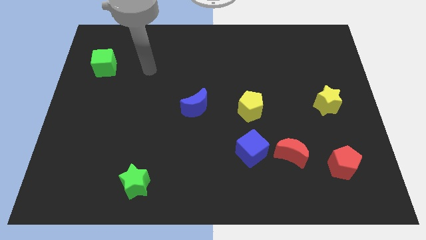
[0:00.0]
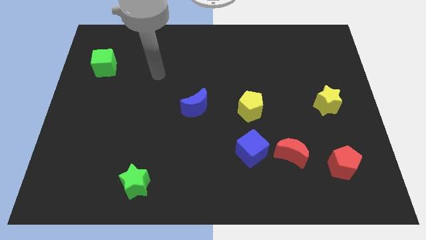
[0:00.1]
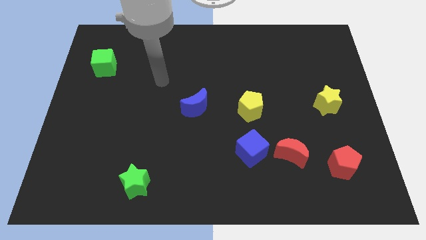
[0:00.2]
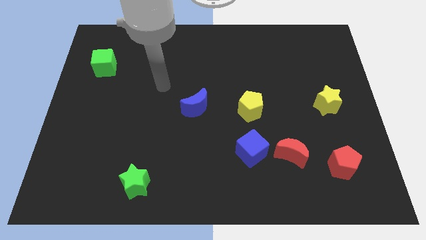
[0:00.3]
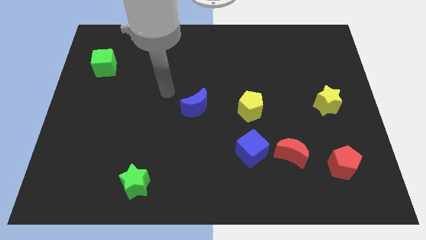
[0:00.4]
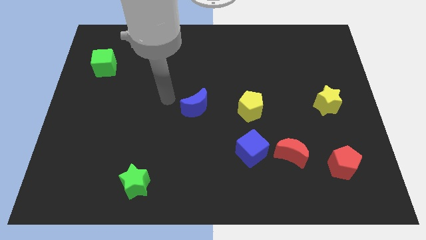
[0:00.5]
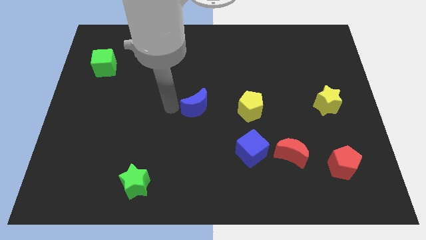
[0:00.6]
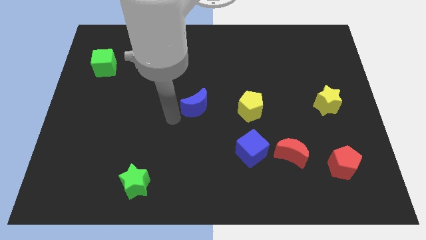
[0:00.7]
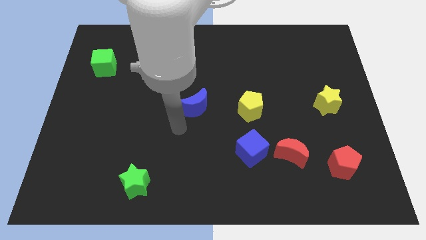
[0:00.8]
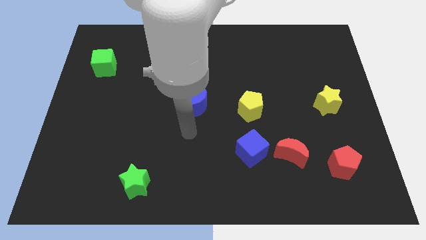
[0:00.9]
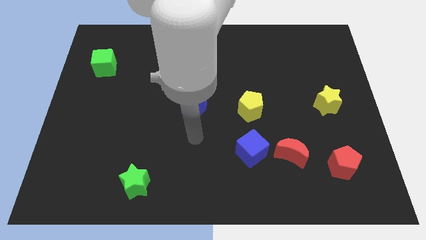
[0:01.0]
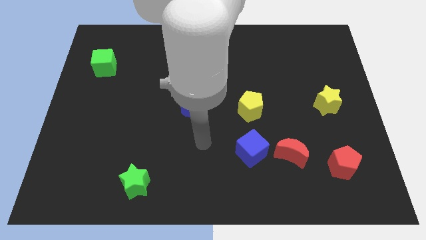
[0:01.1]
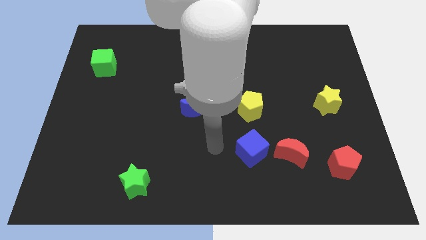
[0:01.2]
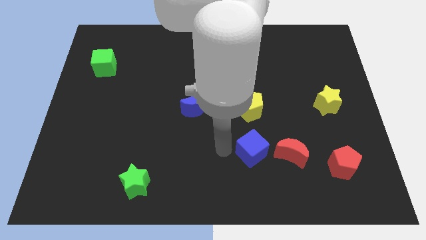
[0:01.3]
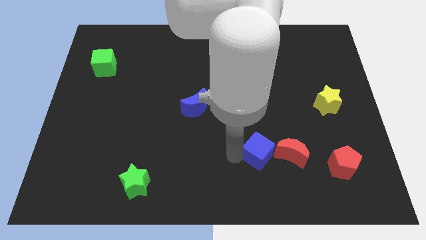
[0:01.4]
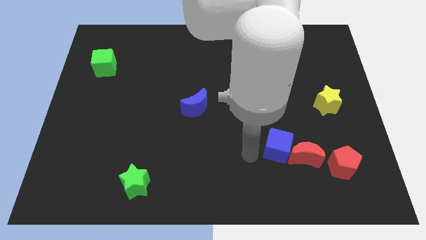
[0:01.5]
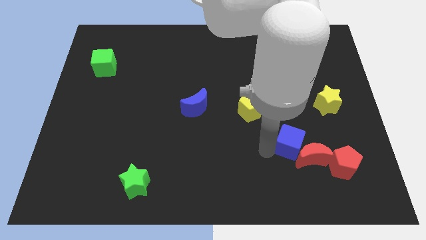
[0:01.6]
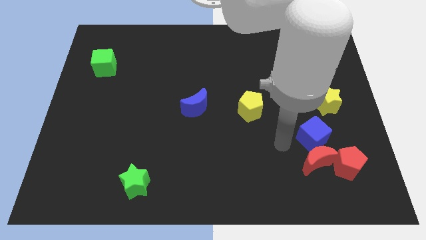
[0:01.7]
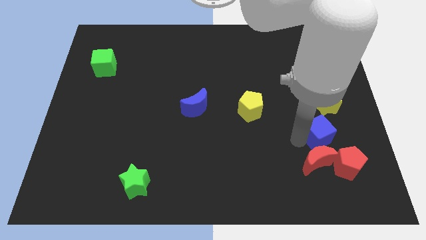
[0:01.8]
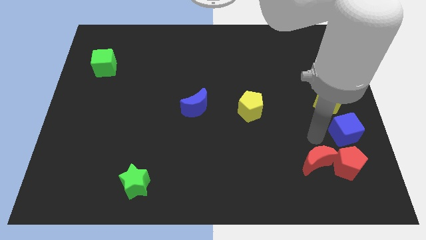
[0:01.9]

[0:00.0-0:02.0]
pull the red moon apart from the blue cube

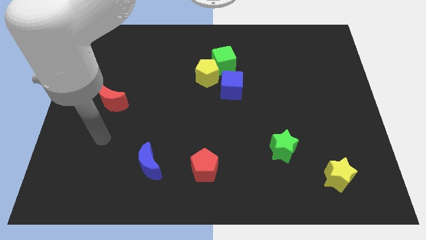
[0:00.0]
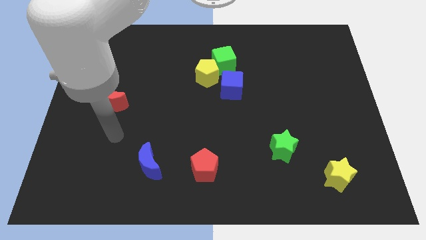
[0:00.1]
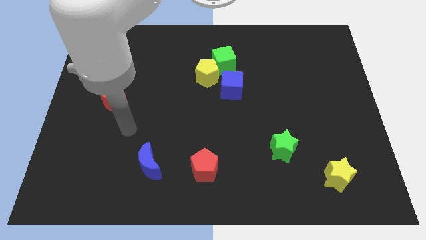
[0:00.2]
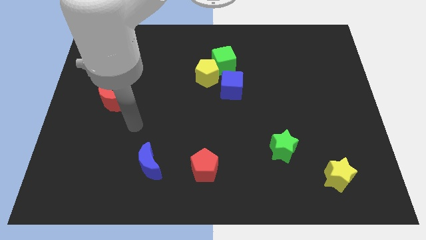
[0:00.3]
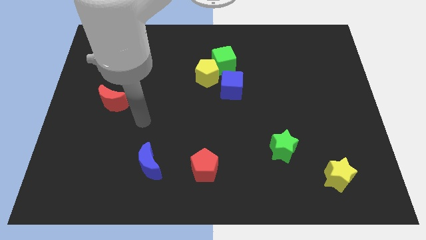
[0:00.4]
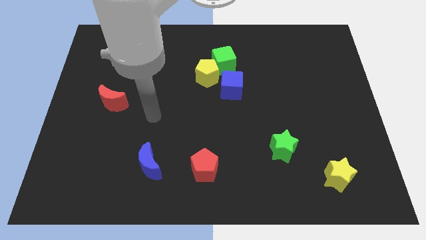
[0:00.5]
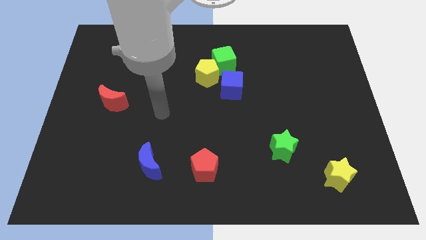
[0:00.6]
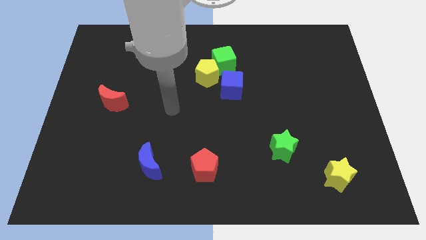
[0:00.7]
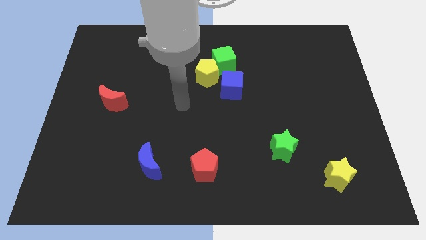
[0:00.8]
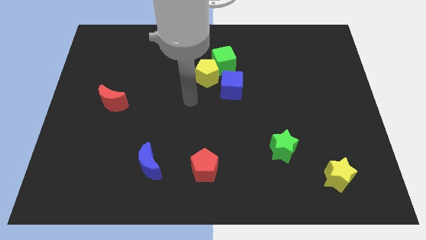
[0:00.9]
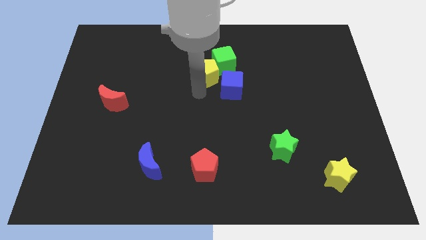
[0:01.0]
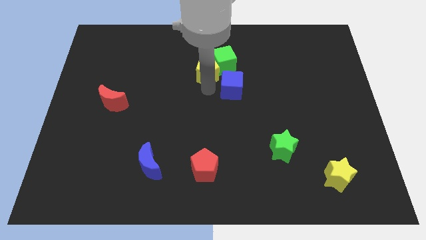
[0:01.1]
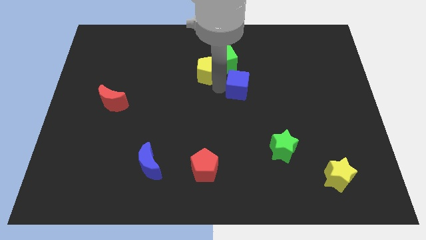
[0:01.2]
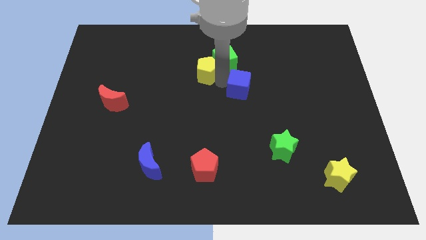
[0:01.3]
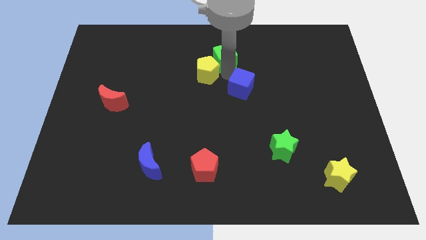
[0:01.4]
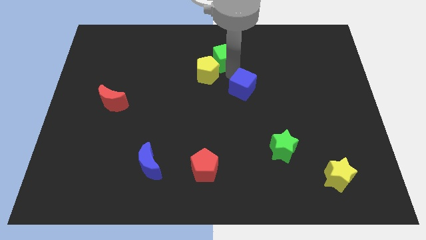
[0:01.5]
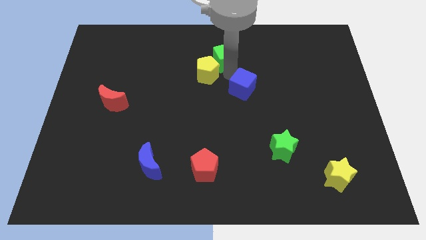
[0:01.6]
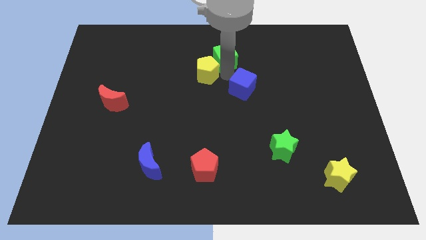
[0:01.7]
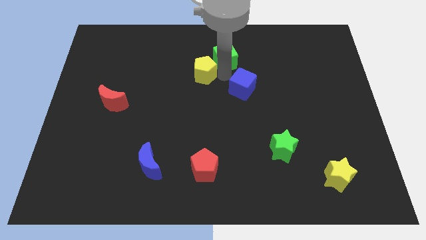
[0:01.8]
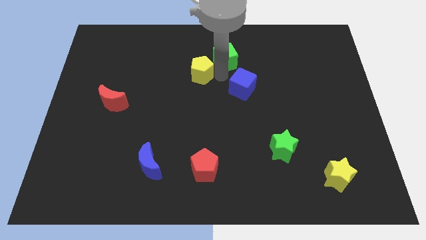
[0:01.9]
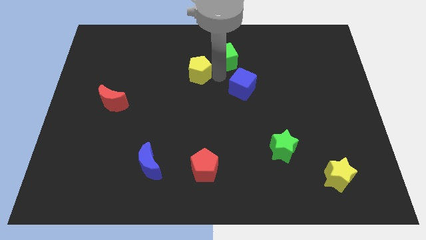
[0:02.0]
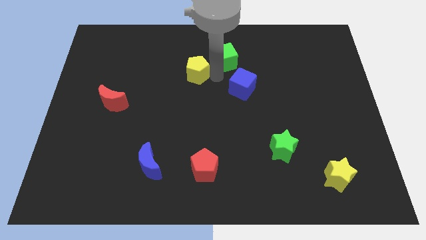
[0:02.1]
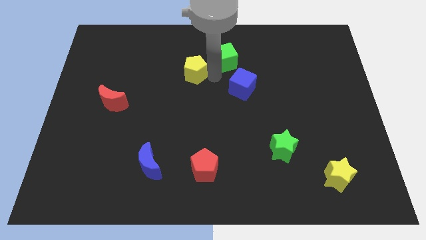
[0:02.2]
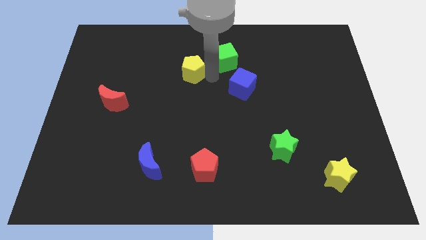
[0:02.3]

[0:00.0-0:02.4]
pull the yellow pentagon apart from the green cube and blue cube

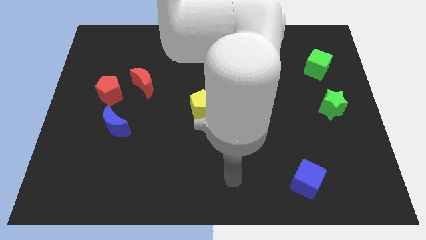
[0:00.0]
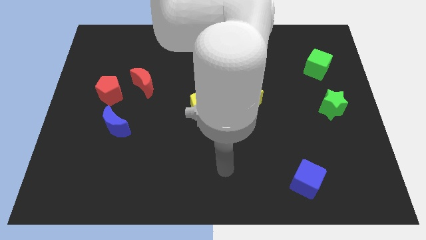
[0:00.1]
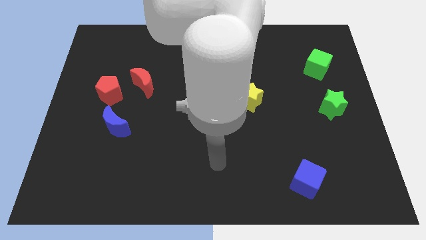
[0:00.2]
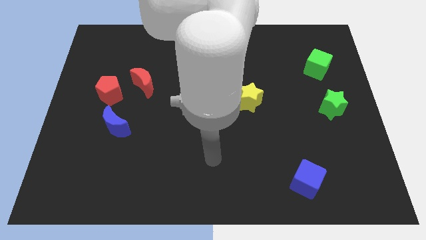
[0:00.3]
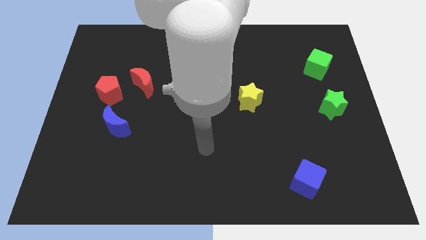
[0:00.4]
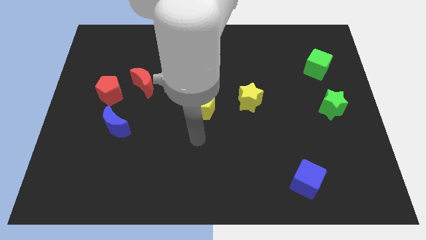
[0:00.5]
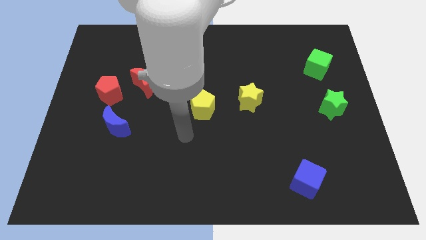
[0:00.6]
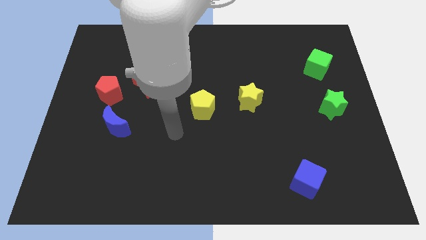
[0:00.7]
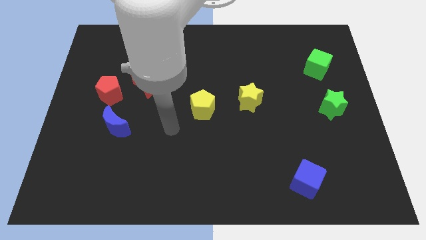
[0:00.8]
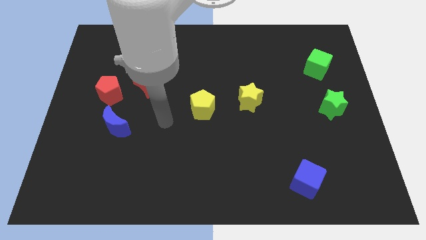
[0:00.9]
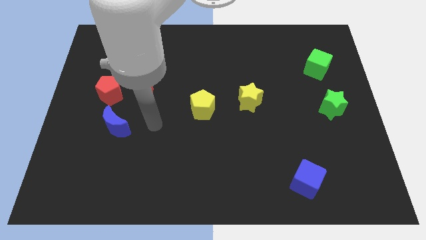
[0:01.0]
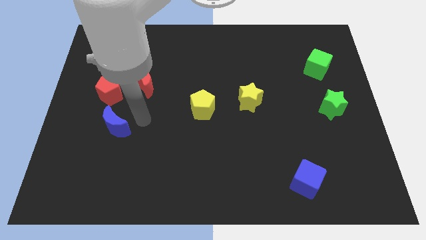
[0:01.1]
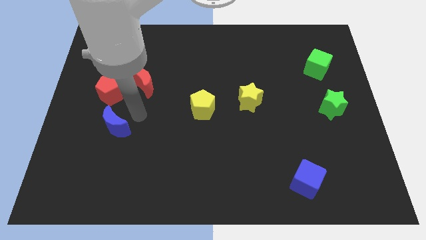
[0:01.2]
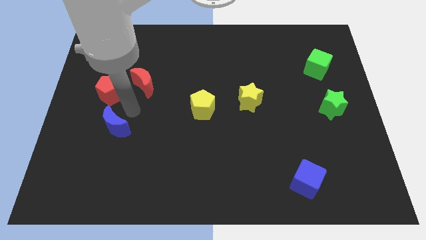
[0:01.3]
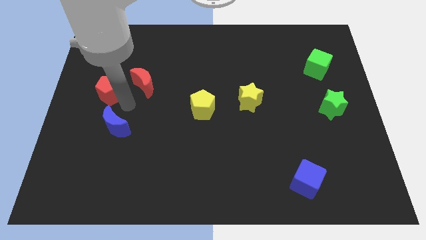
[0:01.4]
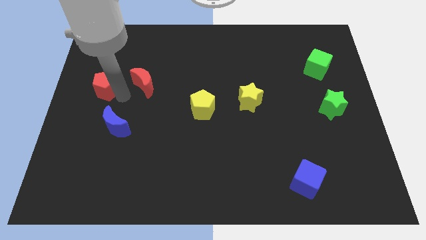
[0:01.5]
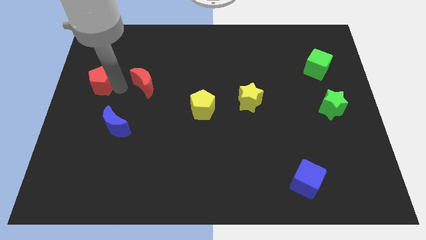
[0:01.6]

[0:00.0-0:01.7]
pull the red moon apart from the red pentagon

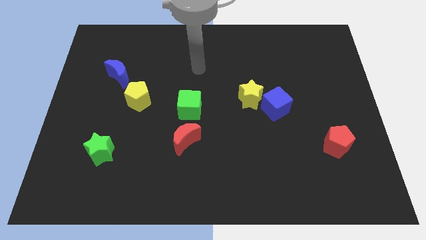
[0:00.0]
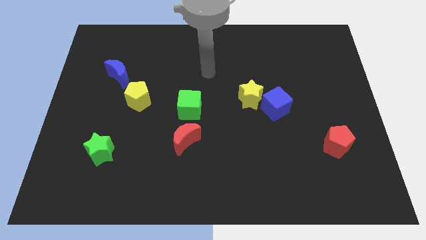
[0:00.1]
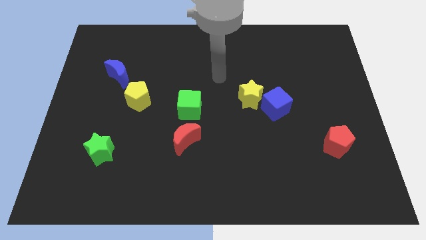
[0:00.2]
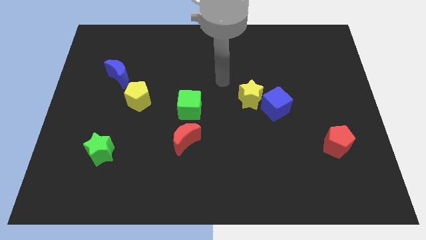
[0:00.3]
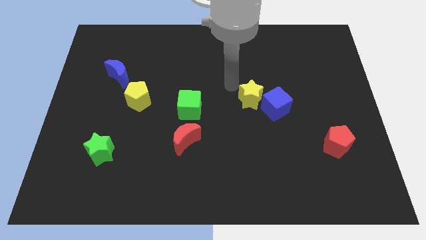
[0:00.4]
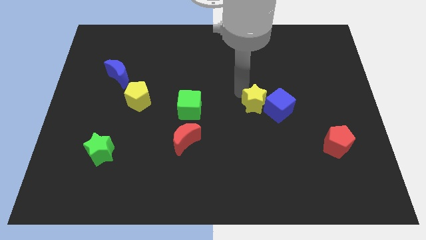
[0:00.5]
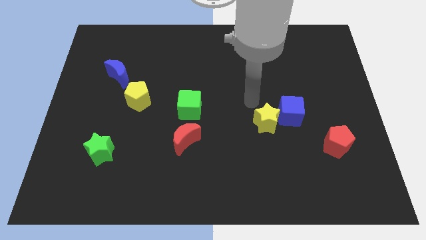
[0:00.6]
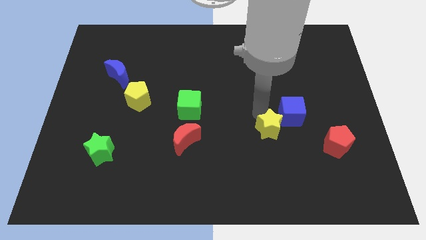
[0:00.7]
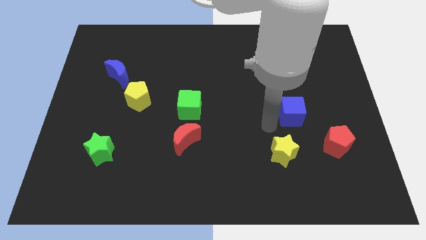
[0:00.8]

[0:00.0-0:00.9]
separate the blue cube from the yellow star

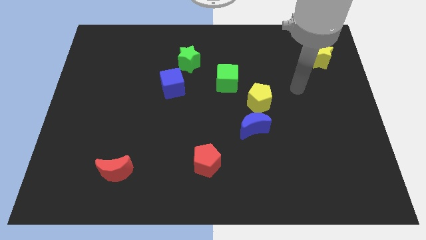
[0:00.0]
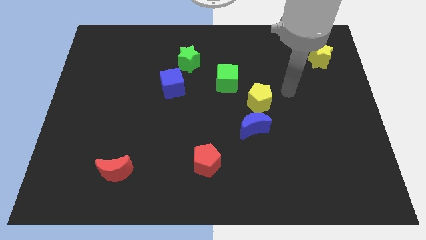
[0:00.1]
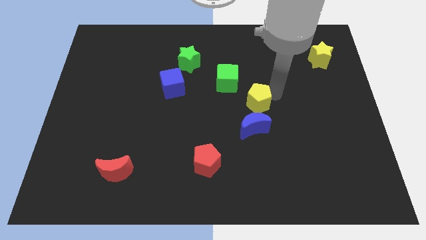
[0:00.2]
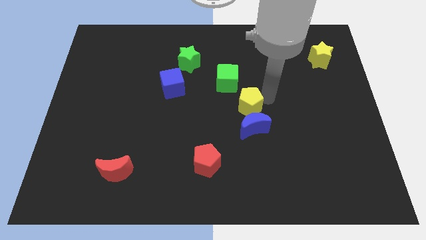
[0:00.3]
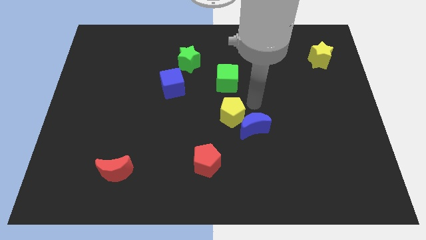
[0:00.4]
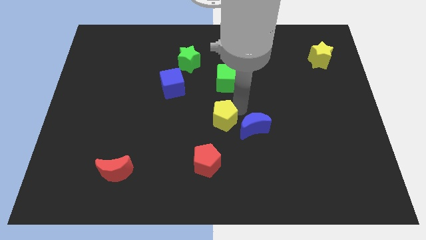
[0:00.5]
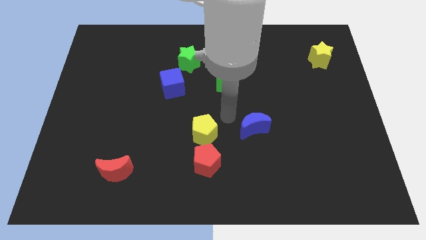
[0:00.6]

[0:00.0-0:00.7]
move the blue moon away from the yellow pentagon

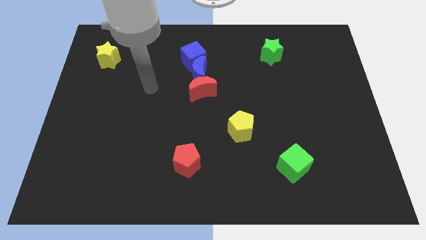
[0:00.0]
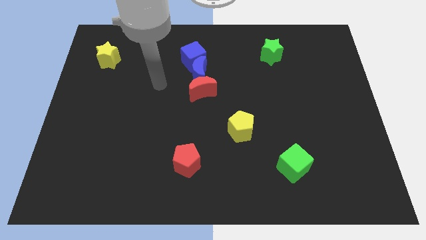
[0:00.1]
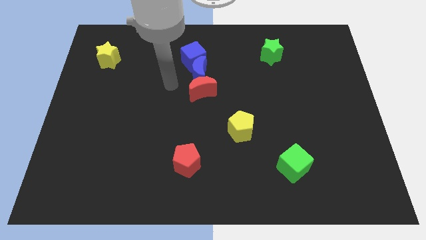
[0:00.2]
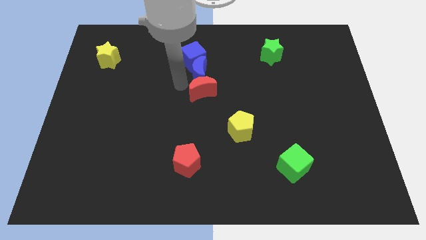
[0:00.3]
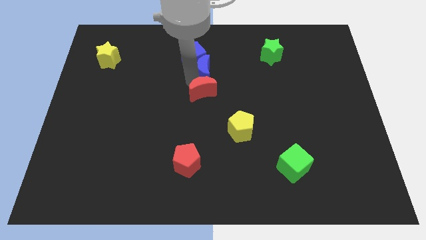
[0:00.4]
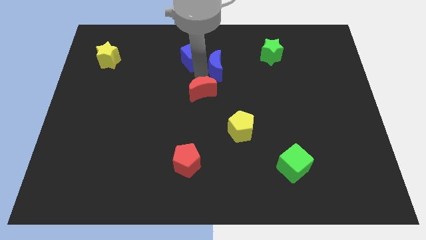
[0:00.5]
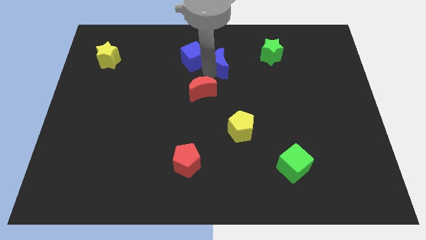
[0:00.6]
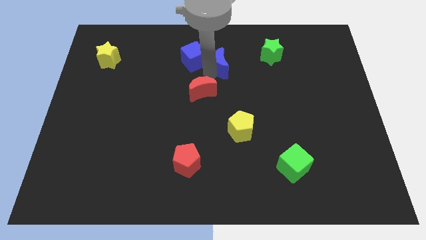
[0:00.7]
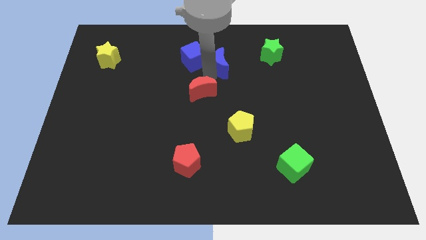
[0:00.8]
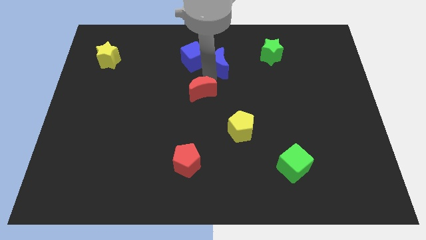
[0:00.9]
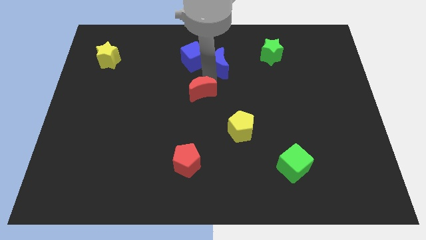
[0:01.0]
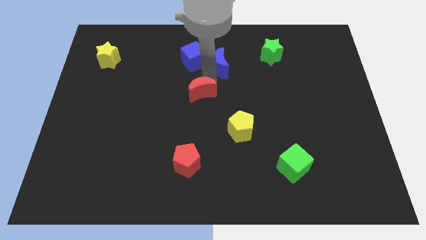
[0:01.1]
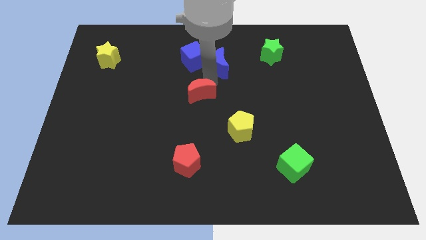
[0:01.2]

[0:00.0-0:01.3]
pull the red moon apart from the blue moon

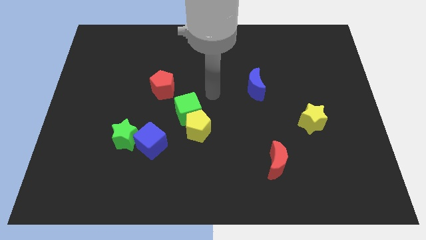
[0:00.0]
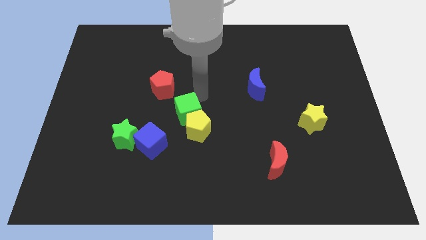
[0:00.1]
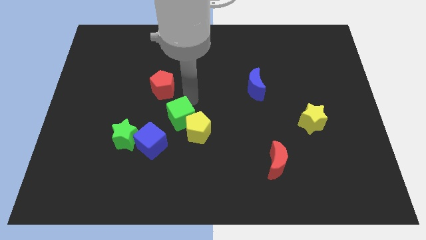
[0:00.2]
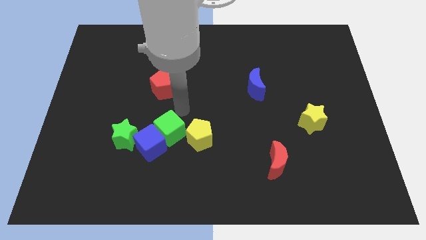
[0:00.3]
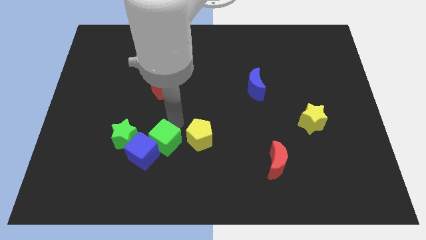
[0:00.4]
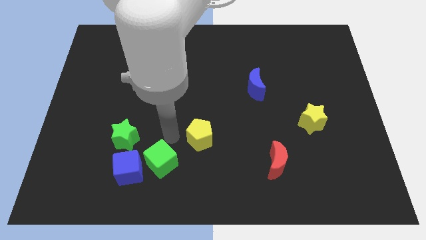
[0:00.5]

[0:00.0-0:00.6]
pull the yellow pentagon apart from the green cube
